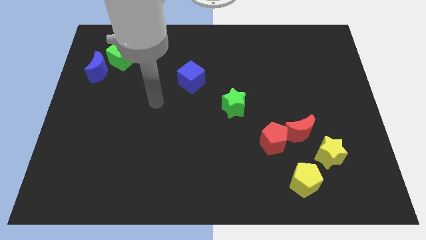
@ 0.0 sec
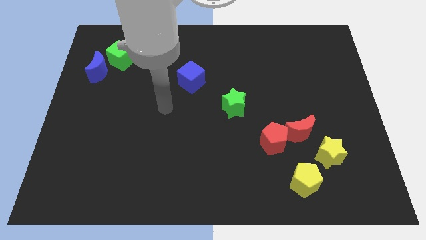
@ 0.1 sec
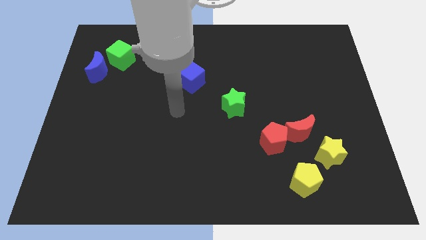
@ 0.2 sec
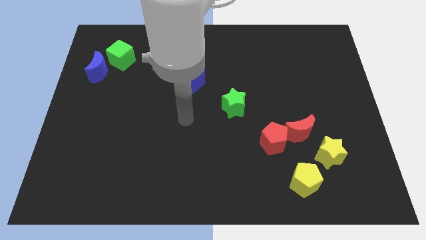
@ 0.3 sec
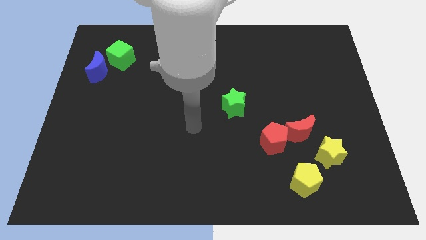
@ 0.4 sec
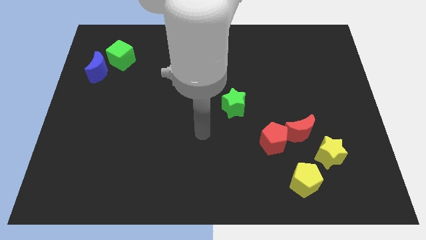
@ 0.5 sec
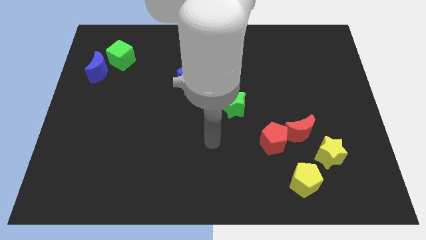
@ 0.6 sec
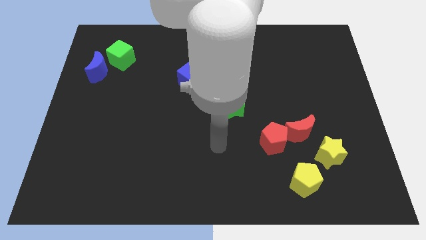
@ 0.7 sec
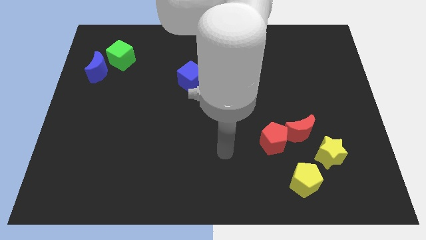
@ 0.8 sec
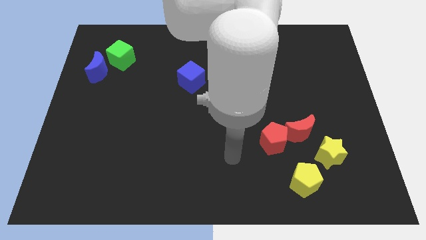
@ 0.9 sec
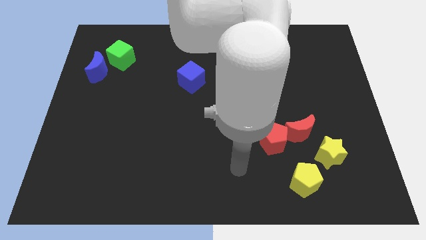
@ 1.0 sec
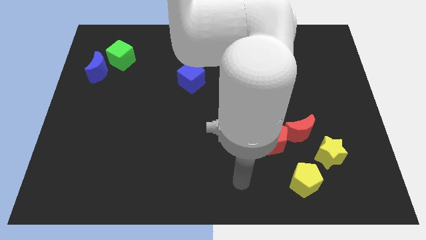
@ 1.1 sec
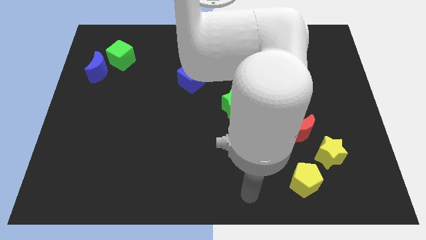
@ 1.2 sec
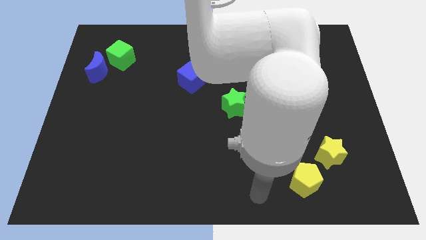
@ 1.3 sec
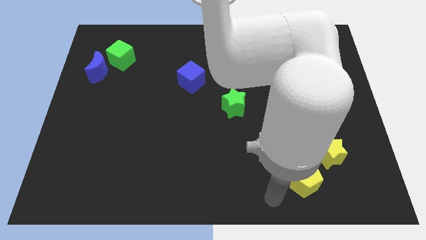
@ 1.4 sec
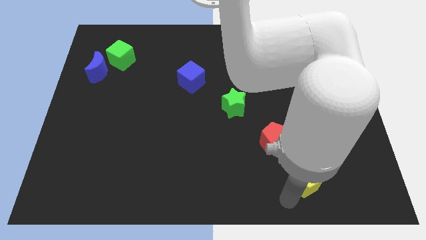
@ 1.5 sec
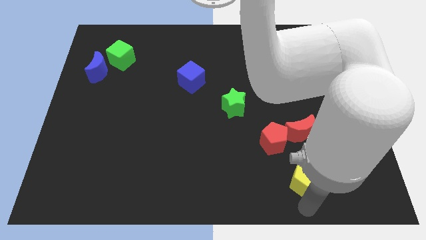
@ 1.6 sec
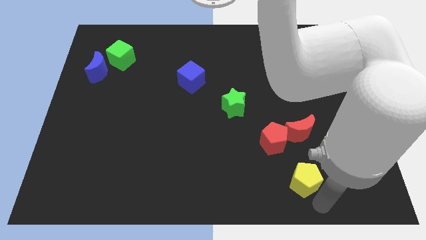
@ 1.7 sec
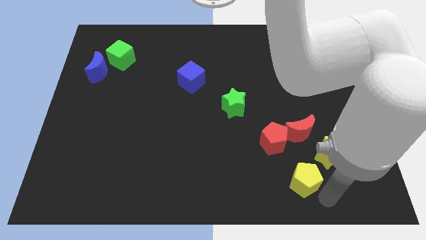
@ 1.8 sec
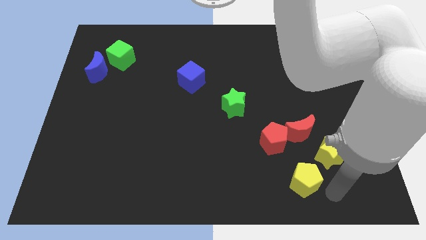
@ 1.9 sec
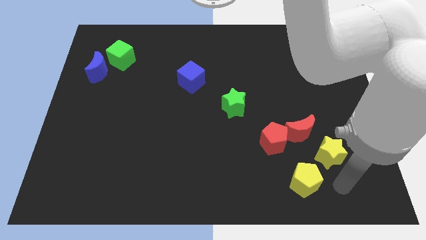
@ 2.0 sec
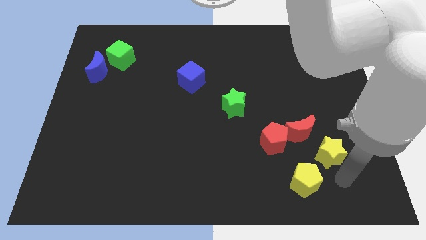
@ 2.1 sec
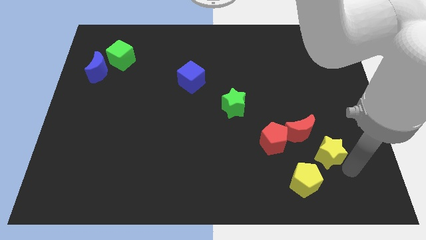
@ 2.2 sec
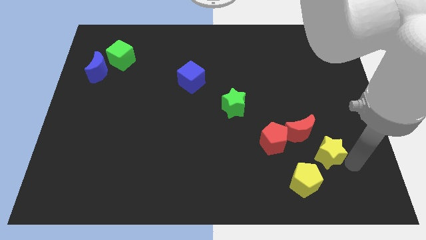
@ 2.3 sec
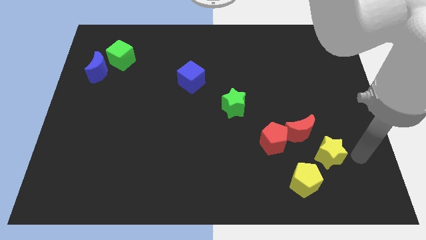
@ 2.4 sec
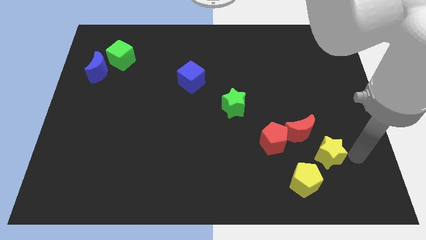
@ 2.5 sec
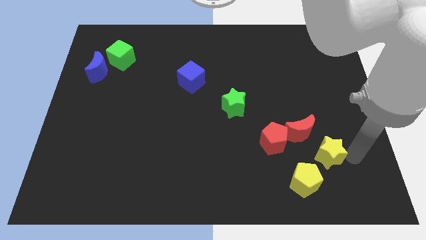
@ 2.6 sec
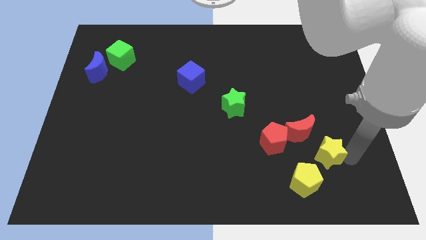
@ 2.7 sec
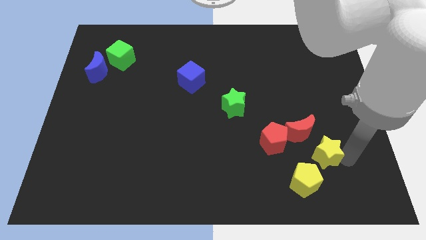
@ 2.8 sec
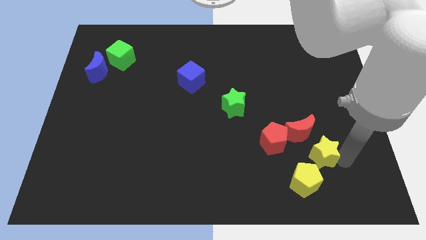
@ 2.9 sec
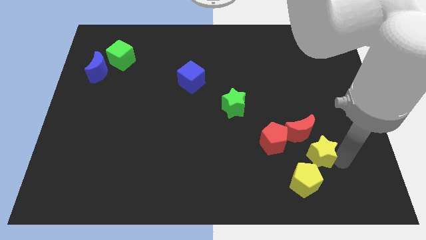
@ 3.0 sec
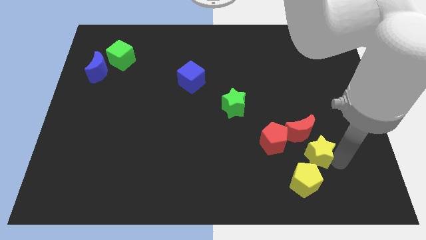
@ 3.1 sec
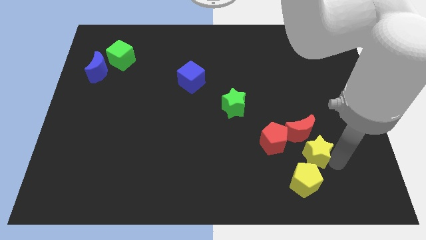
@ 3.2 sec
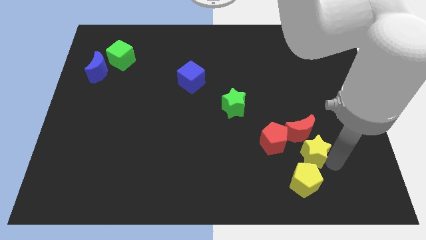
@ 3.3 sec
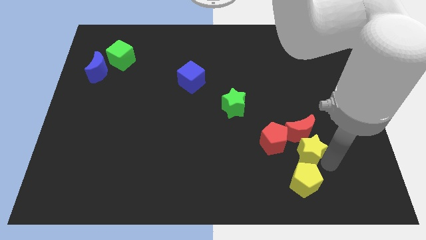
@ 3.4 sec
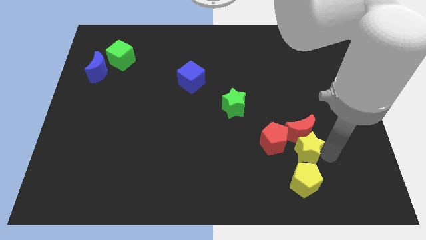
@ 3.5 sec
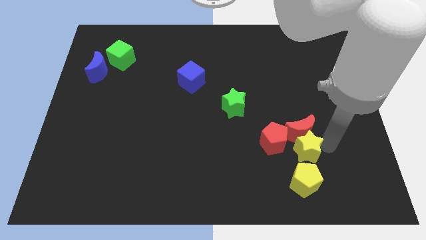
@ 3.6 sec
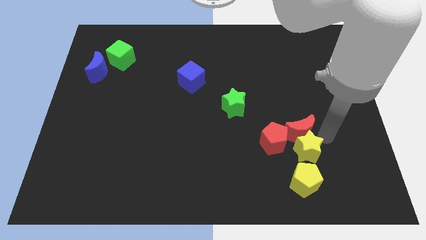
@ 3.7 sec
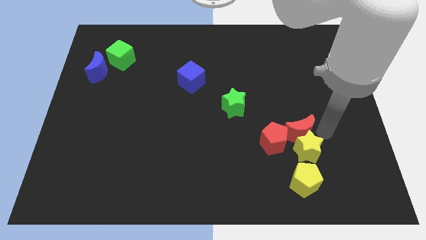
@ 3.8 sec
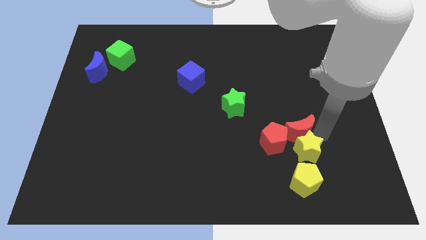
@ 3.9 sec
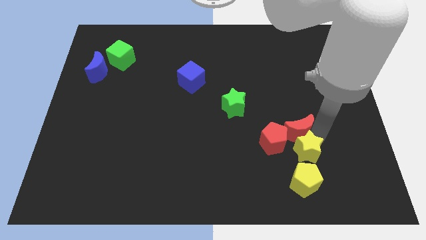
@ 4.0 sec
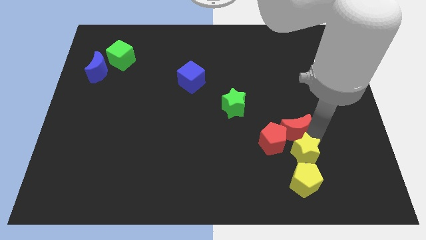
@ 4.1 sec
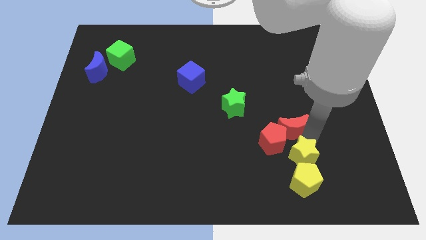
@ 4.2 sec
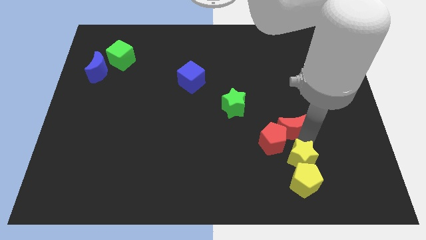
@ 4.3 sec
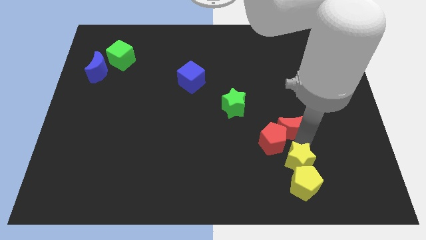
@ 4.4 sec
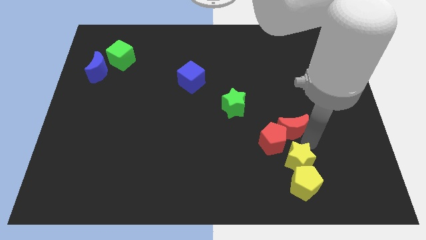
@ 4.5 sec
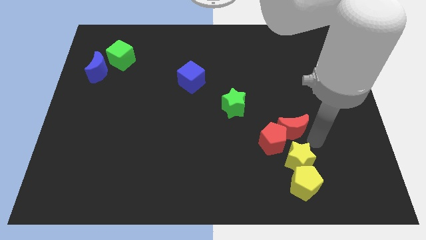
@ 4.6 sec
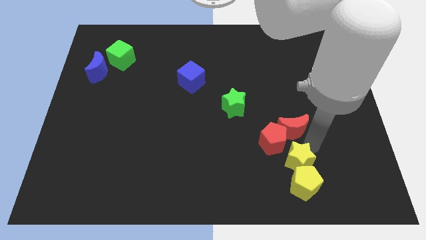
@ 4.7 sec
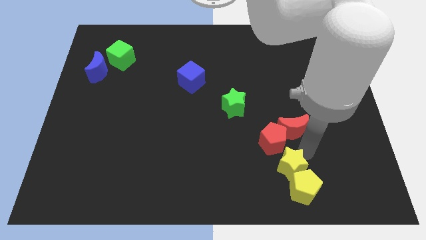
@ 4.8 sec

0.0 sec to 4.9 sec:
move the yellow star below the red pentagon

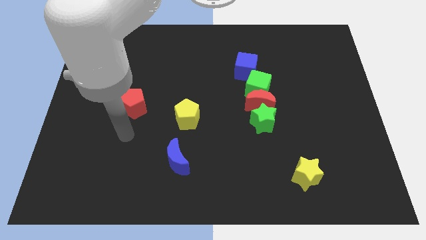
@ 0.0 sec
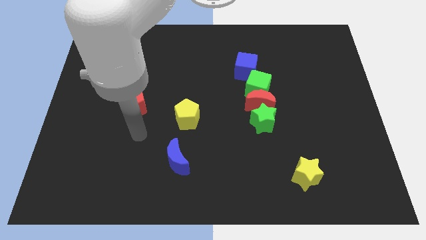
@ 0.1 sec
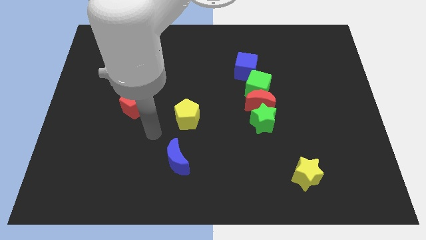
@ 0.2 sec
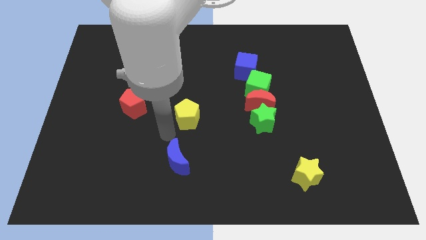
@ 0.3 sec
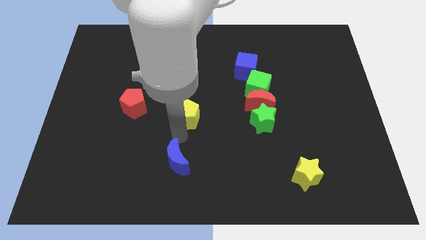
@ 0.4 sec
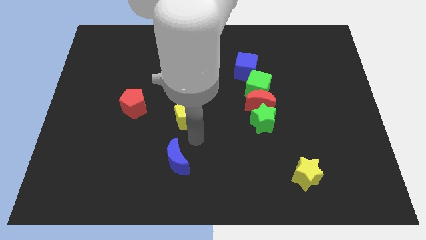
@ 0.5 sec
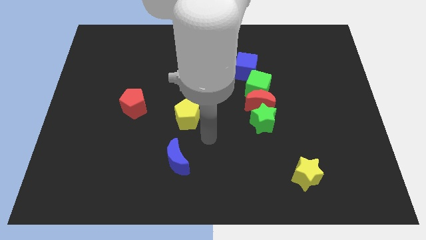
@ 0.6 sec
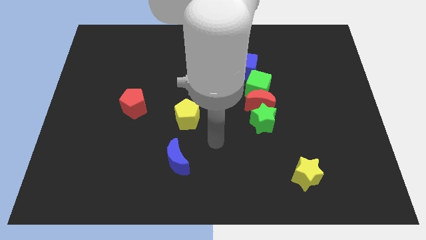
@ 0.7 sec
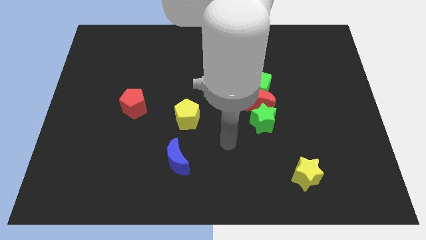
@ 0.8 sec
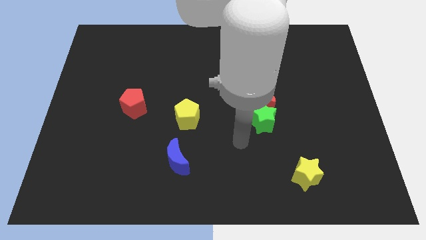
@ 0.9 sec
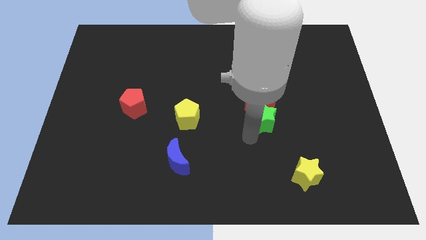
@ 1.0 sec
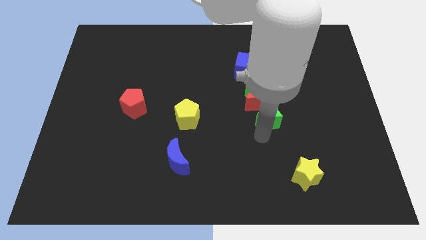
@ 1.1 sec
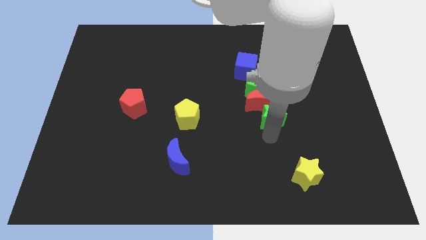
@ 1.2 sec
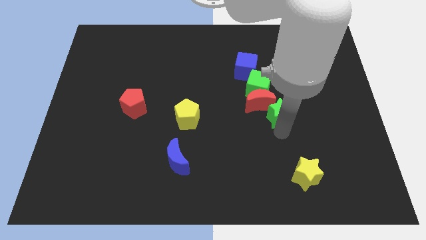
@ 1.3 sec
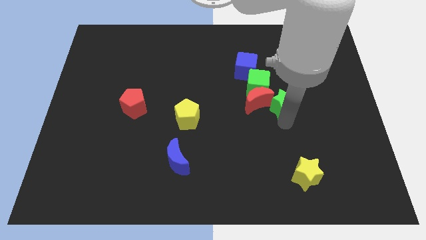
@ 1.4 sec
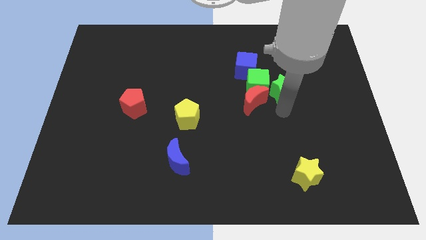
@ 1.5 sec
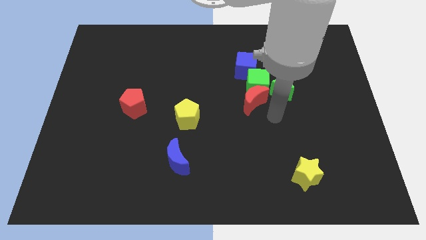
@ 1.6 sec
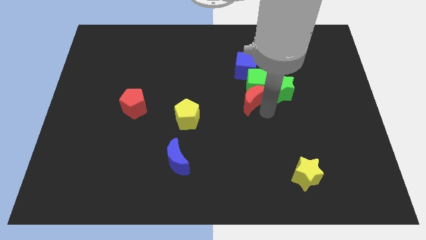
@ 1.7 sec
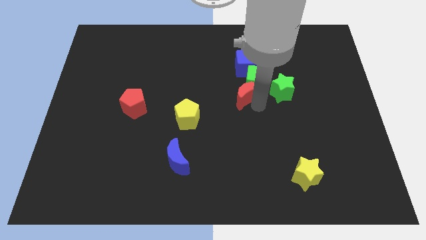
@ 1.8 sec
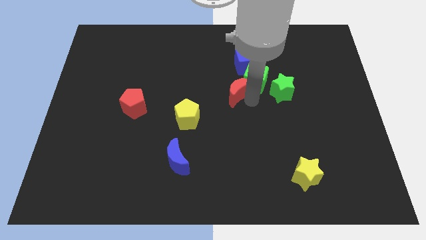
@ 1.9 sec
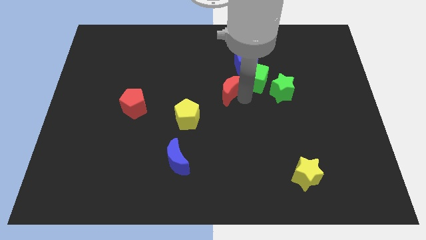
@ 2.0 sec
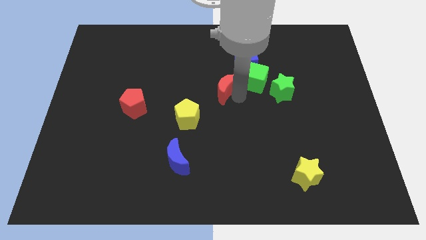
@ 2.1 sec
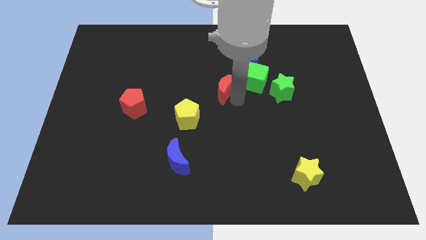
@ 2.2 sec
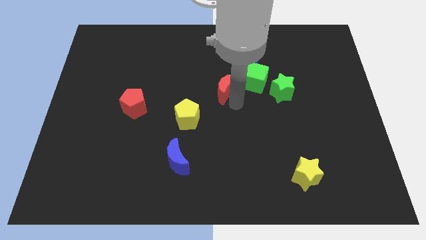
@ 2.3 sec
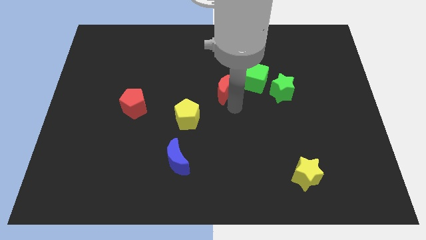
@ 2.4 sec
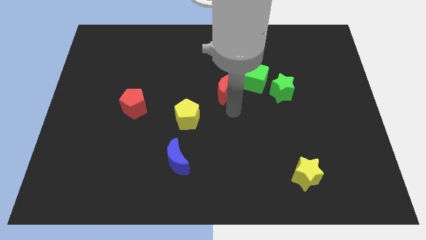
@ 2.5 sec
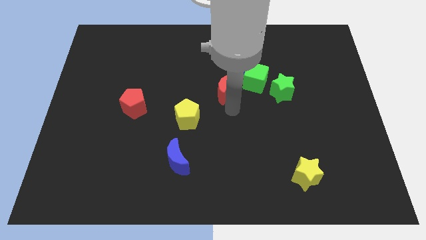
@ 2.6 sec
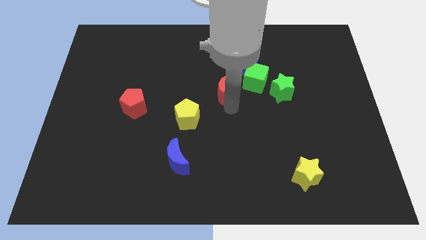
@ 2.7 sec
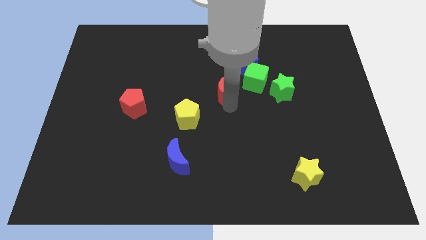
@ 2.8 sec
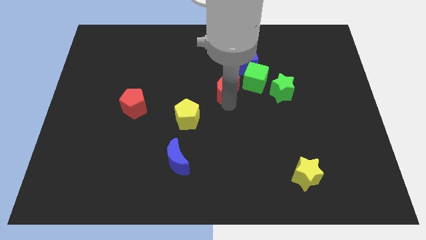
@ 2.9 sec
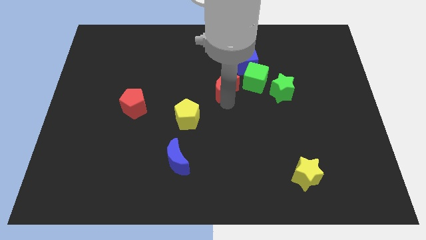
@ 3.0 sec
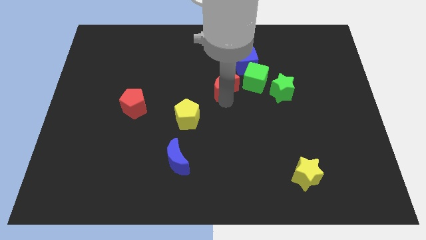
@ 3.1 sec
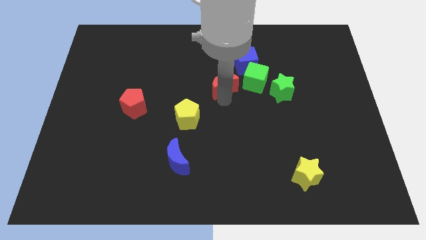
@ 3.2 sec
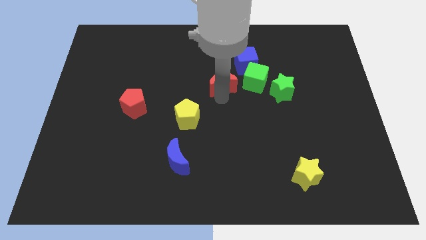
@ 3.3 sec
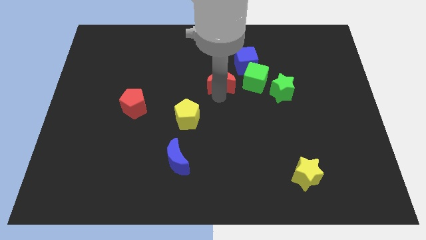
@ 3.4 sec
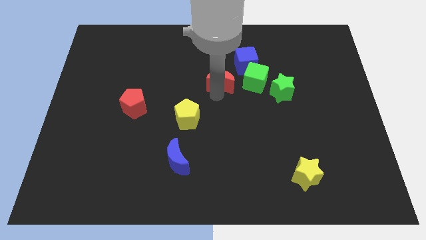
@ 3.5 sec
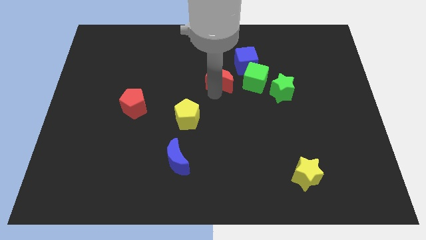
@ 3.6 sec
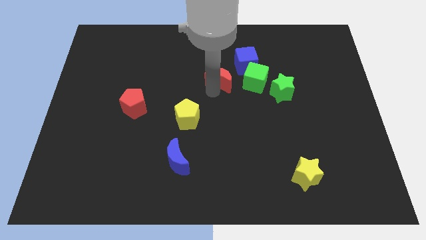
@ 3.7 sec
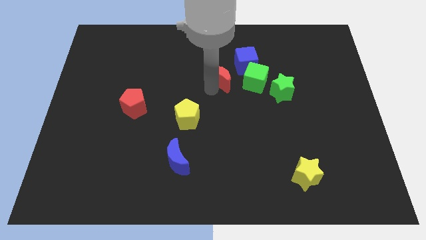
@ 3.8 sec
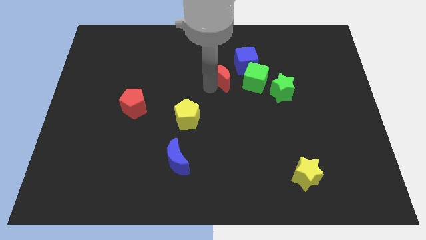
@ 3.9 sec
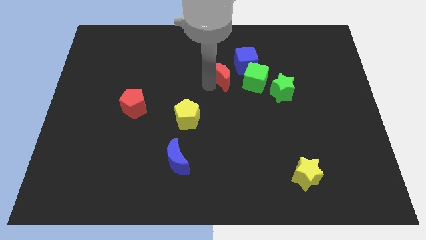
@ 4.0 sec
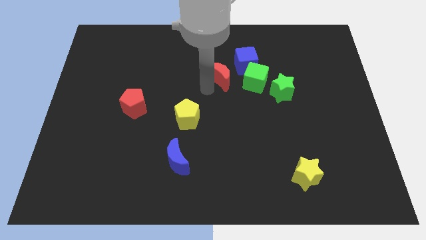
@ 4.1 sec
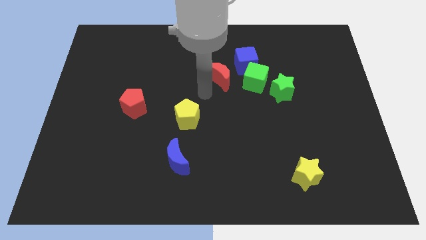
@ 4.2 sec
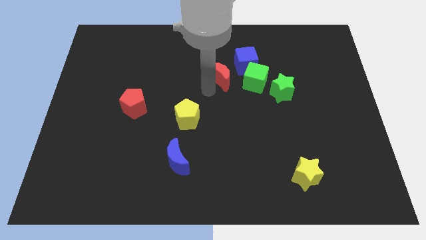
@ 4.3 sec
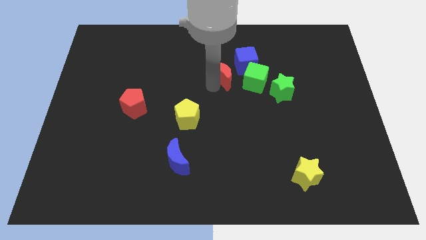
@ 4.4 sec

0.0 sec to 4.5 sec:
put the red moon diagonally up and to the left of the green cube
